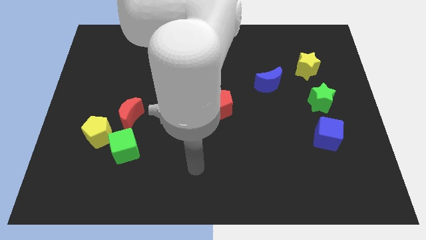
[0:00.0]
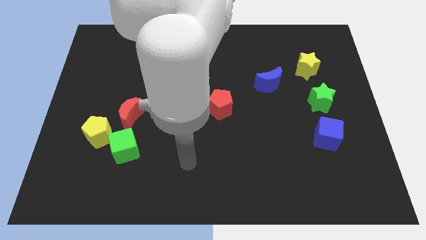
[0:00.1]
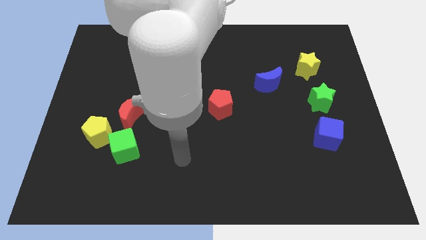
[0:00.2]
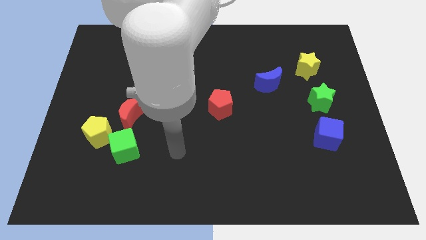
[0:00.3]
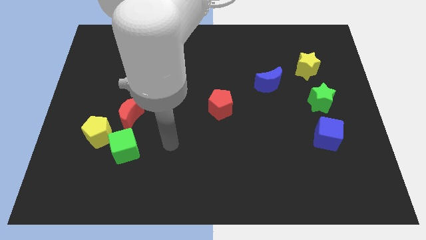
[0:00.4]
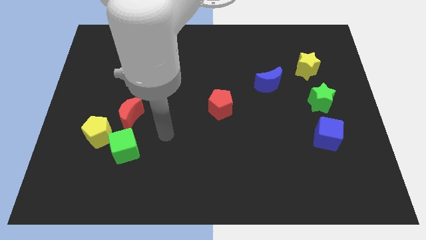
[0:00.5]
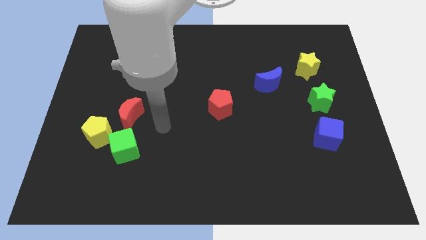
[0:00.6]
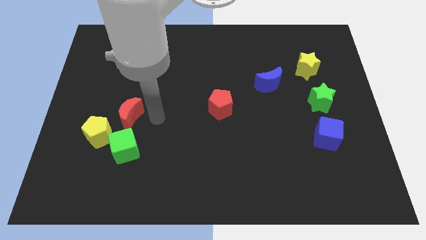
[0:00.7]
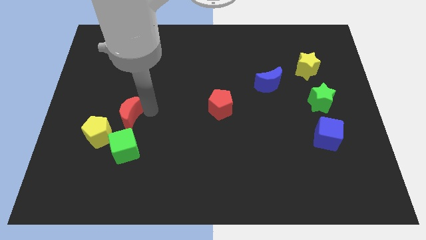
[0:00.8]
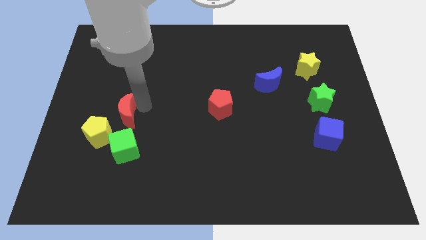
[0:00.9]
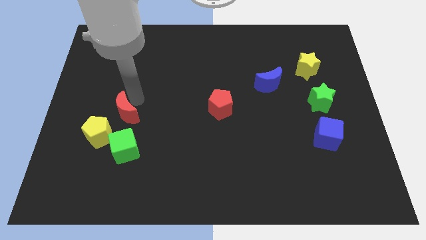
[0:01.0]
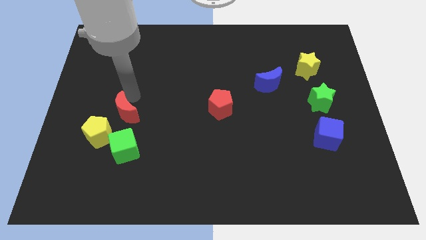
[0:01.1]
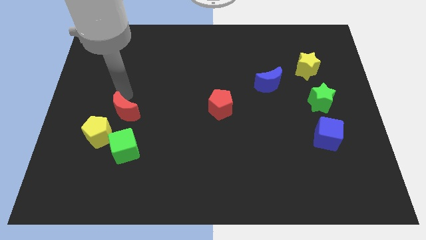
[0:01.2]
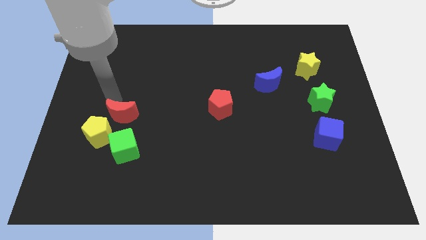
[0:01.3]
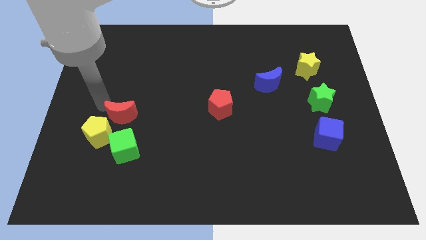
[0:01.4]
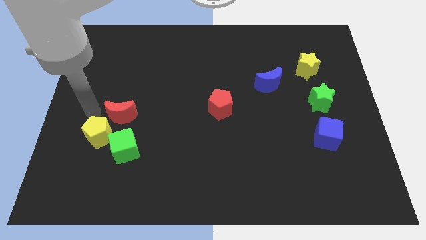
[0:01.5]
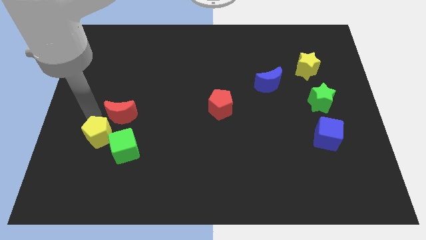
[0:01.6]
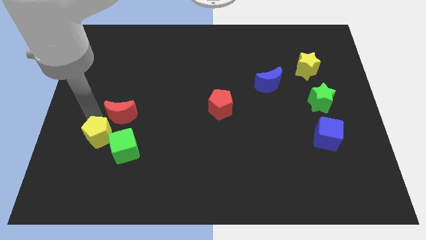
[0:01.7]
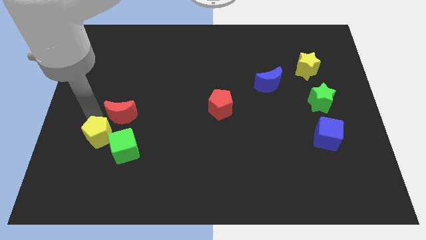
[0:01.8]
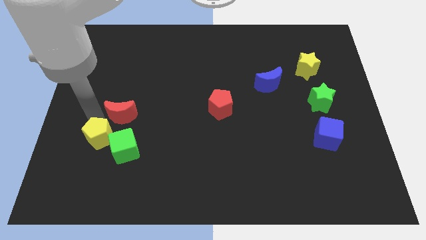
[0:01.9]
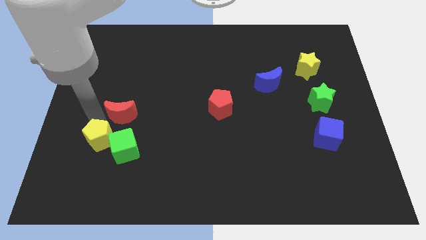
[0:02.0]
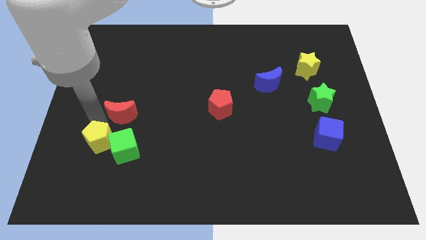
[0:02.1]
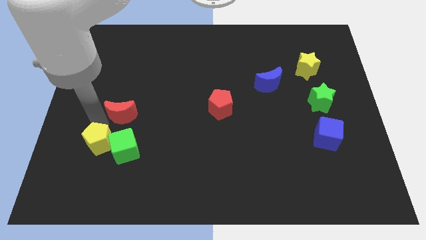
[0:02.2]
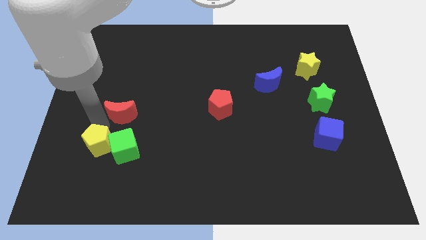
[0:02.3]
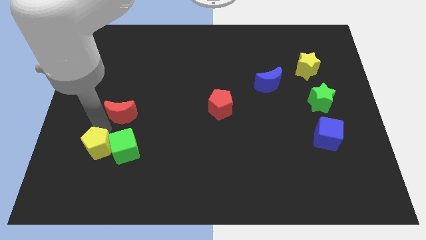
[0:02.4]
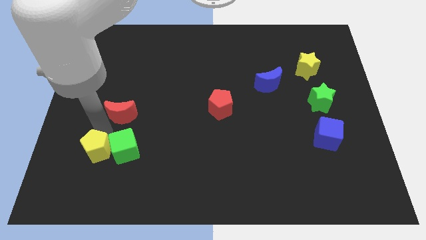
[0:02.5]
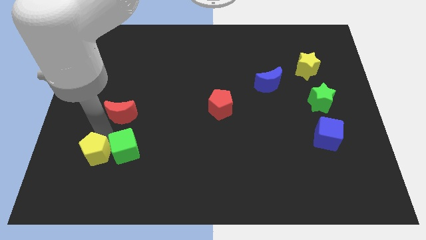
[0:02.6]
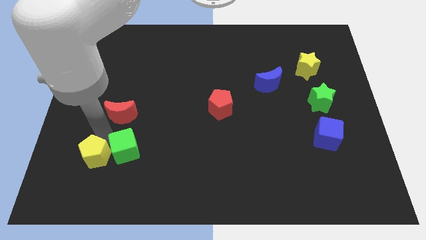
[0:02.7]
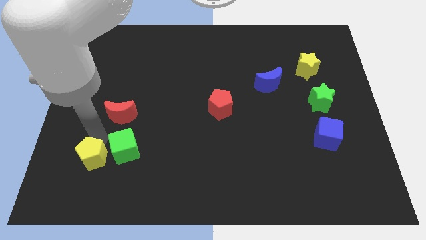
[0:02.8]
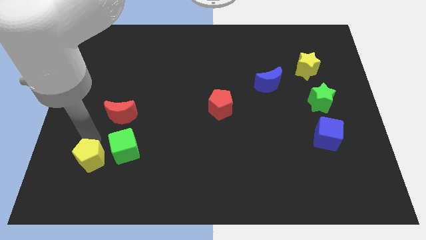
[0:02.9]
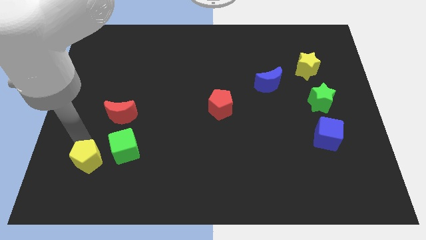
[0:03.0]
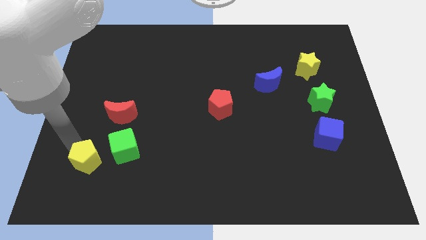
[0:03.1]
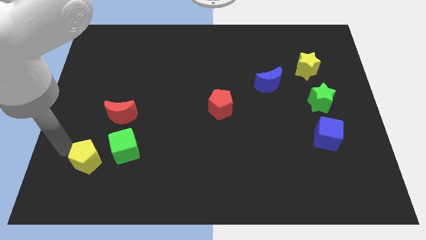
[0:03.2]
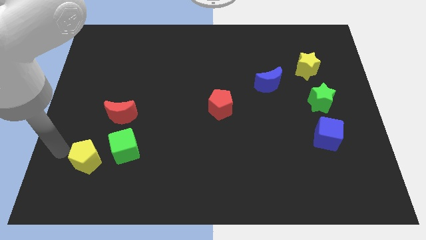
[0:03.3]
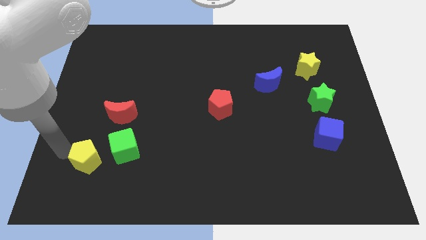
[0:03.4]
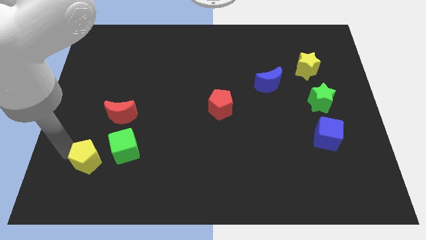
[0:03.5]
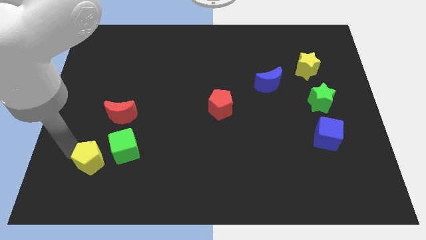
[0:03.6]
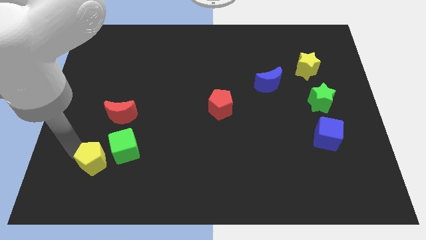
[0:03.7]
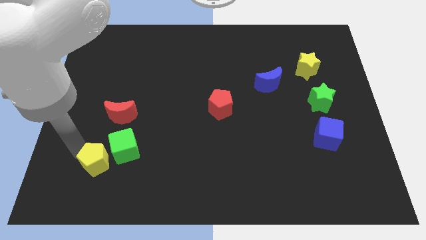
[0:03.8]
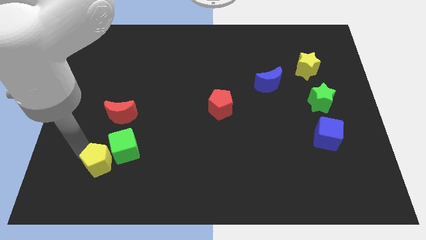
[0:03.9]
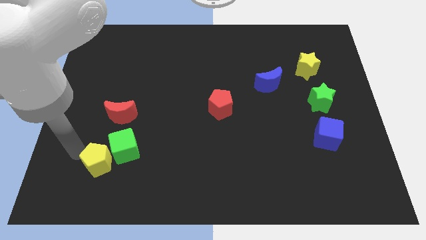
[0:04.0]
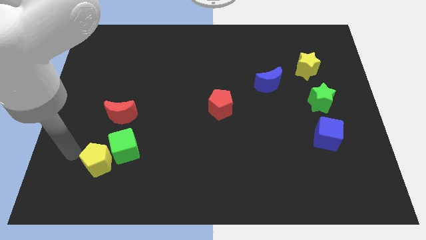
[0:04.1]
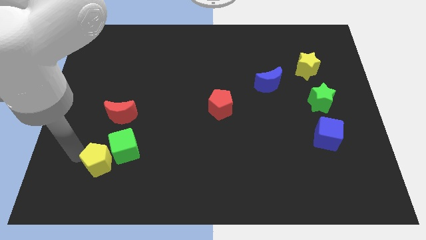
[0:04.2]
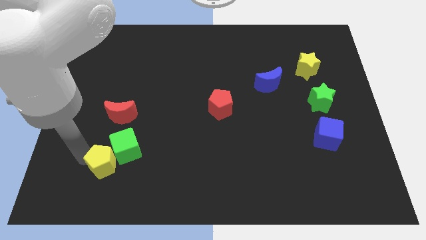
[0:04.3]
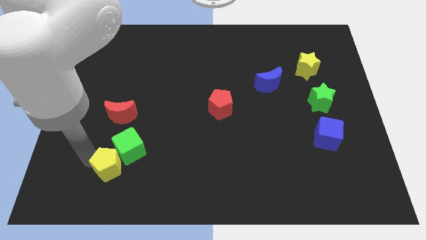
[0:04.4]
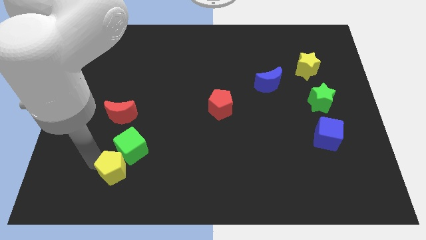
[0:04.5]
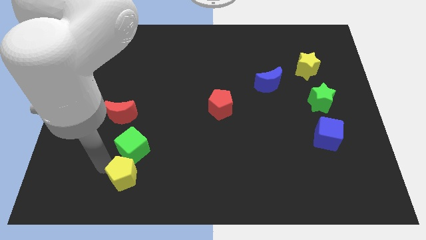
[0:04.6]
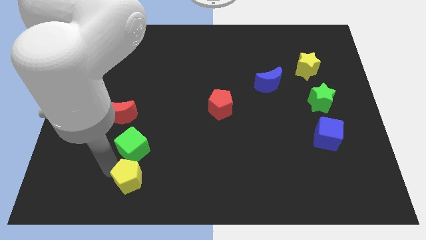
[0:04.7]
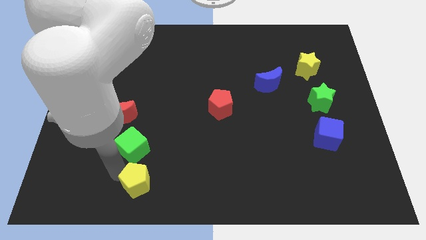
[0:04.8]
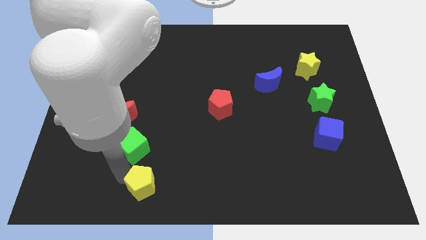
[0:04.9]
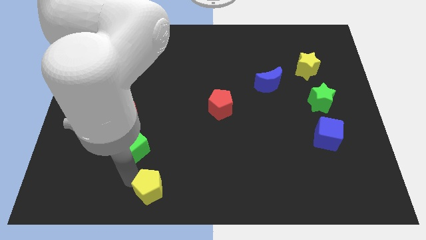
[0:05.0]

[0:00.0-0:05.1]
push the yellow pentagon to the bottom side

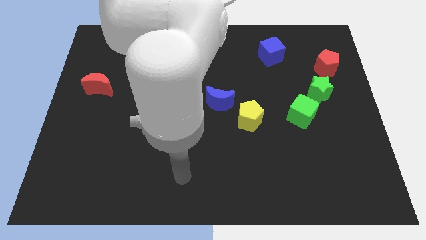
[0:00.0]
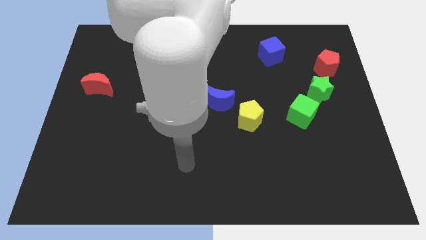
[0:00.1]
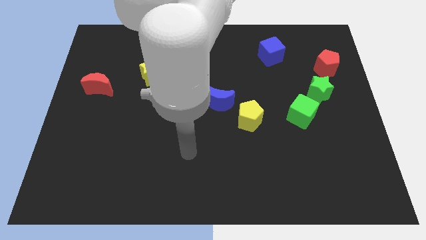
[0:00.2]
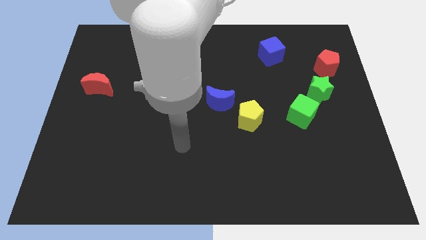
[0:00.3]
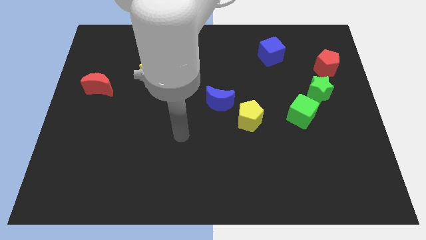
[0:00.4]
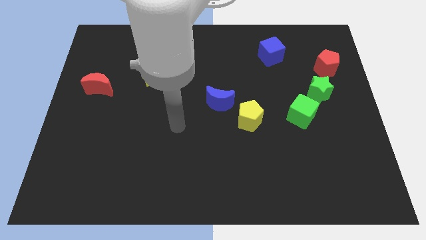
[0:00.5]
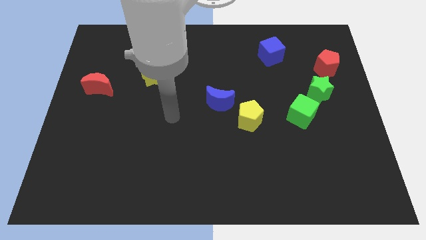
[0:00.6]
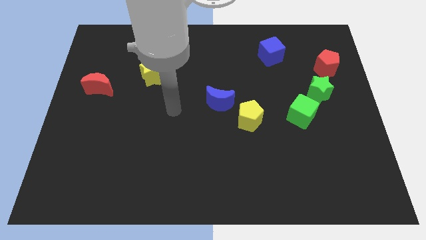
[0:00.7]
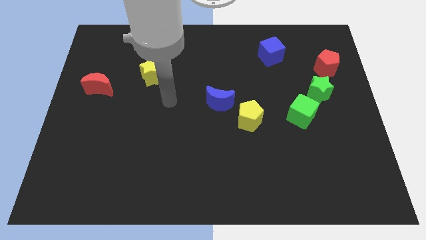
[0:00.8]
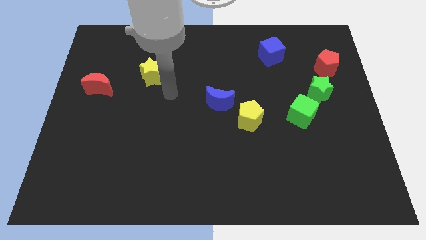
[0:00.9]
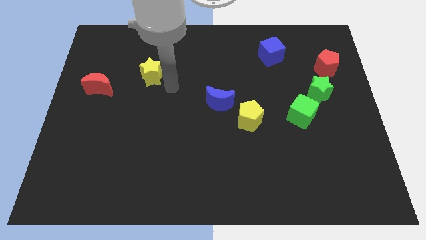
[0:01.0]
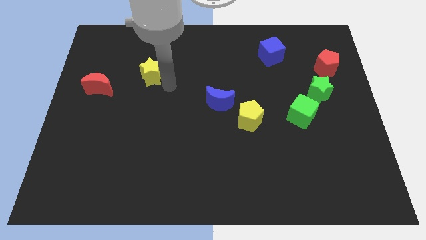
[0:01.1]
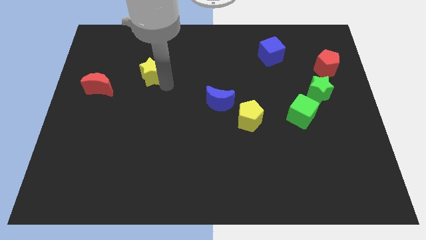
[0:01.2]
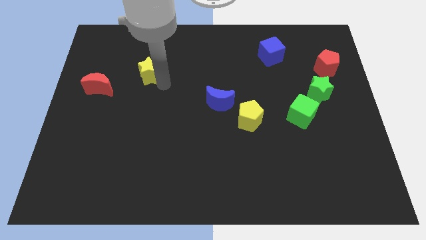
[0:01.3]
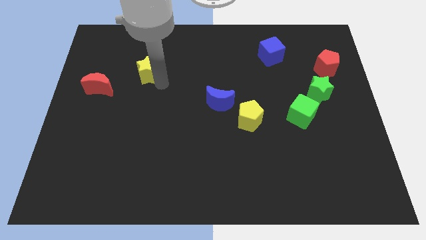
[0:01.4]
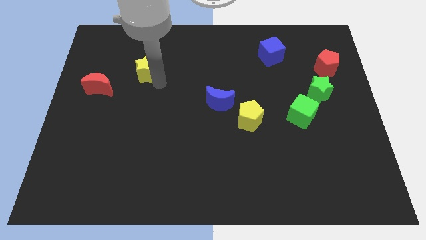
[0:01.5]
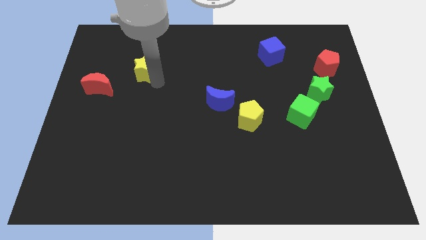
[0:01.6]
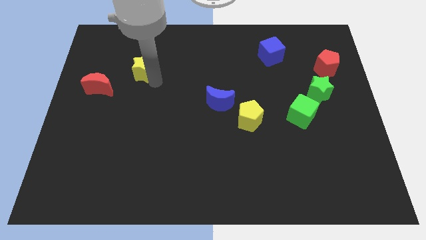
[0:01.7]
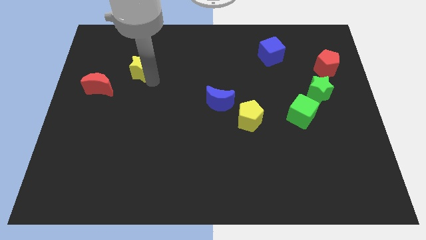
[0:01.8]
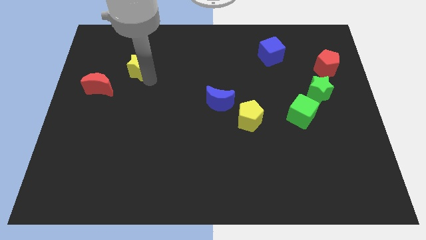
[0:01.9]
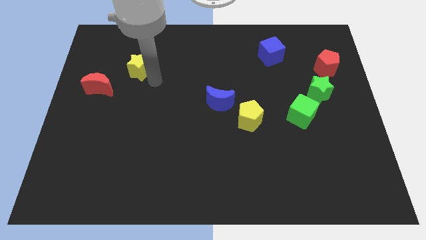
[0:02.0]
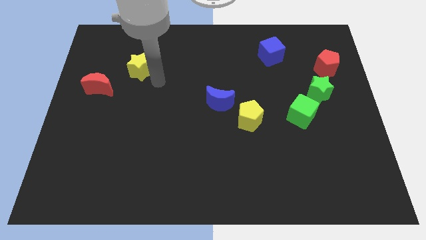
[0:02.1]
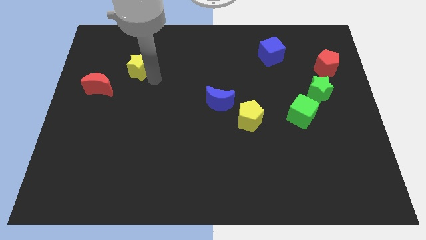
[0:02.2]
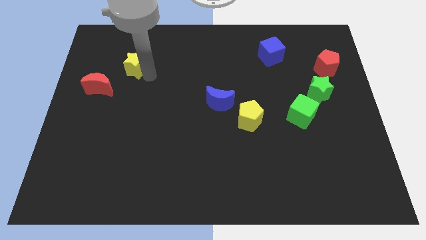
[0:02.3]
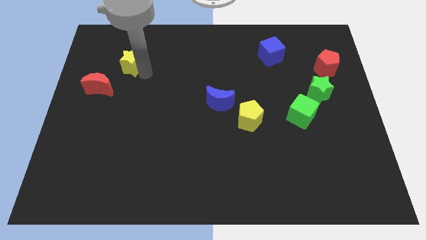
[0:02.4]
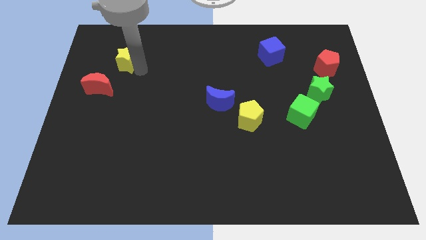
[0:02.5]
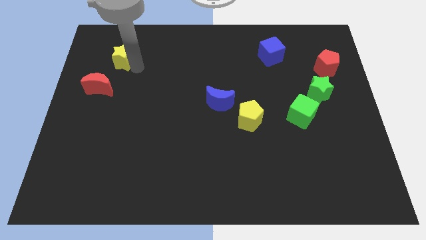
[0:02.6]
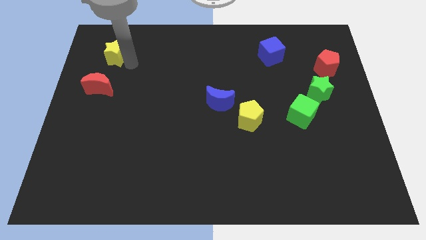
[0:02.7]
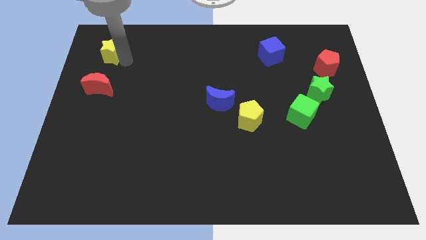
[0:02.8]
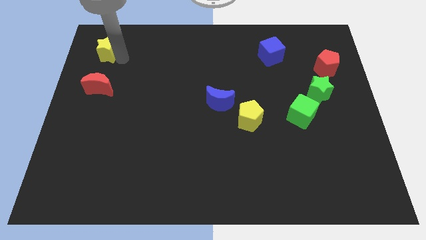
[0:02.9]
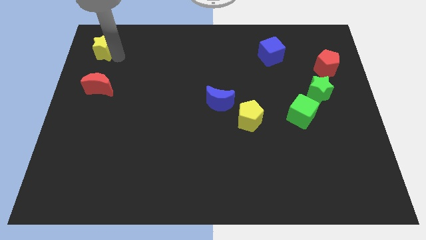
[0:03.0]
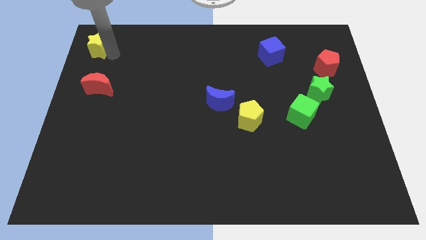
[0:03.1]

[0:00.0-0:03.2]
put the yellow star to the top left of the board
